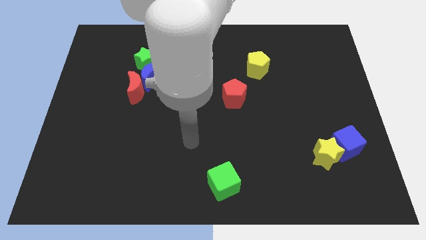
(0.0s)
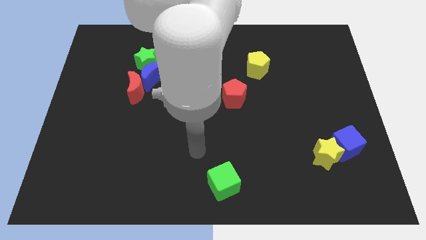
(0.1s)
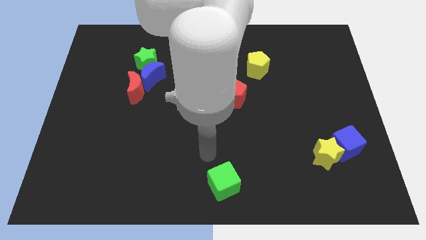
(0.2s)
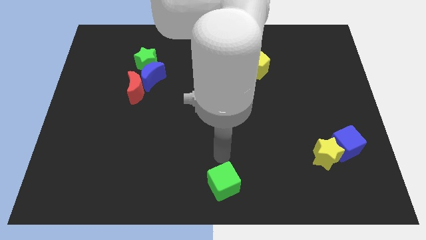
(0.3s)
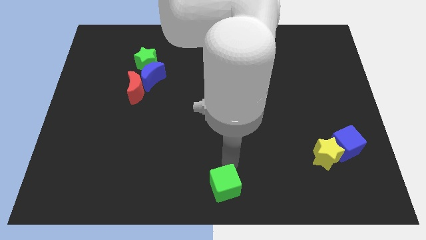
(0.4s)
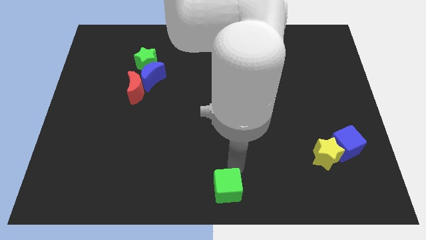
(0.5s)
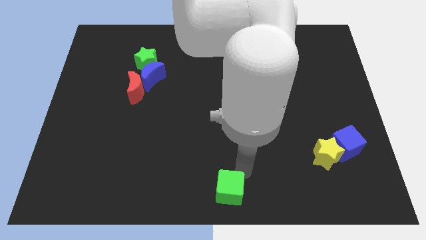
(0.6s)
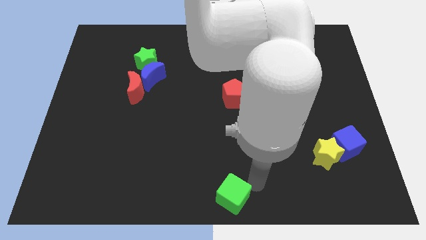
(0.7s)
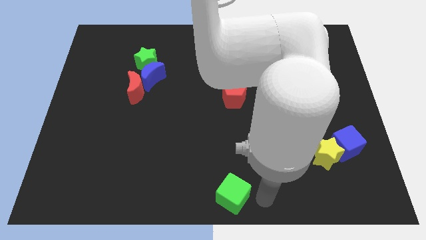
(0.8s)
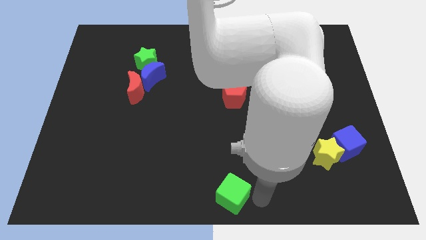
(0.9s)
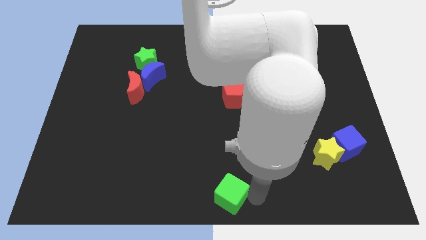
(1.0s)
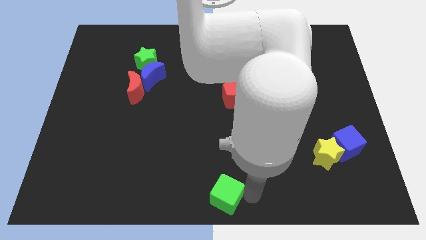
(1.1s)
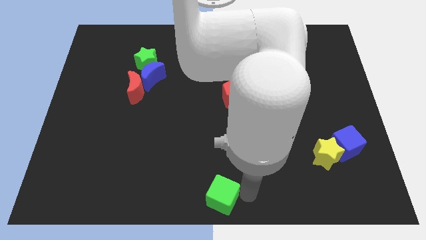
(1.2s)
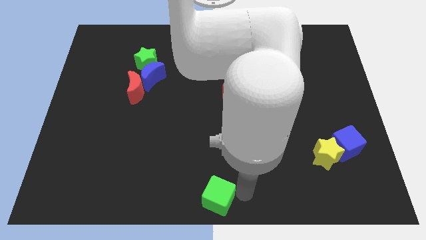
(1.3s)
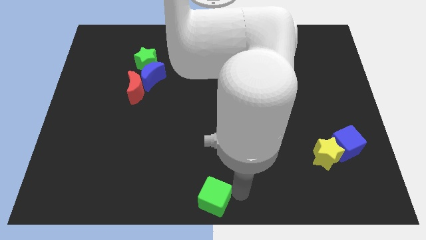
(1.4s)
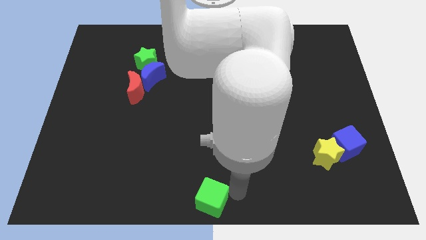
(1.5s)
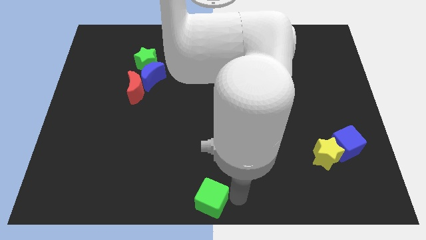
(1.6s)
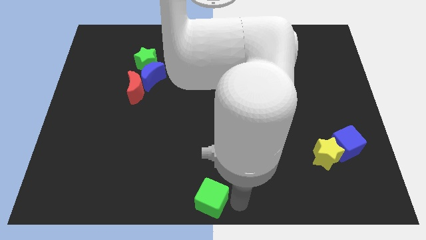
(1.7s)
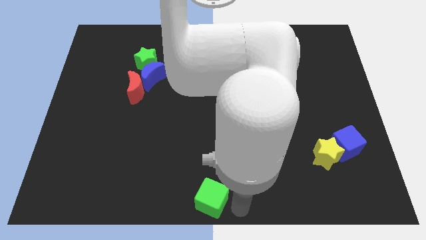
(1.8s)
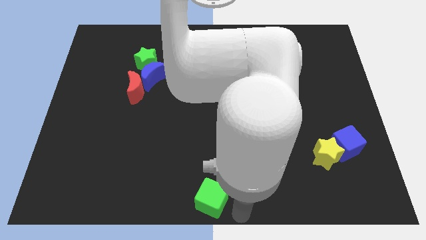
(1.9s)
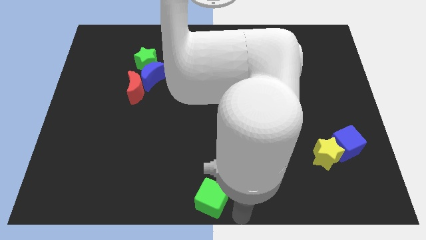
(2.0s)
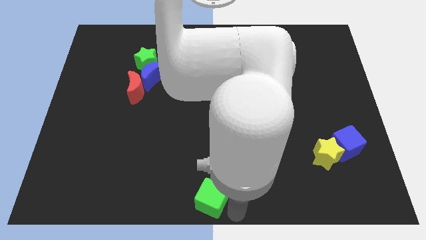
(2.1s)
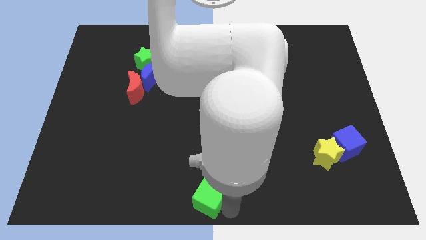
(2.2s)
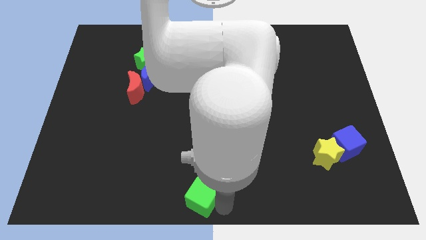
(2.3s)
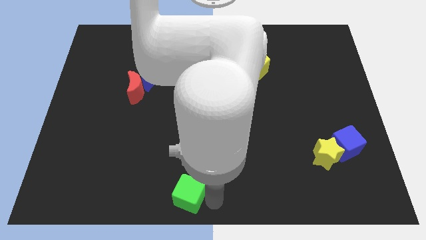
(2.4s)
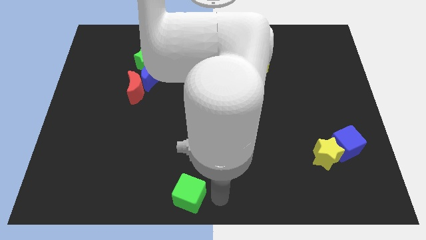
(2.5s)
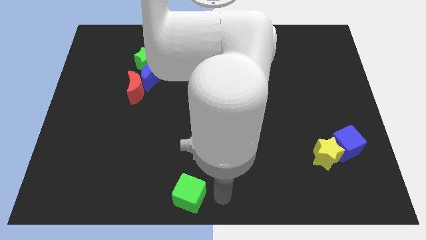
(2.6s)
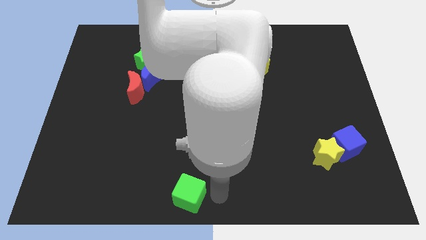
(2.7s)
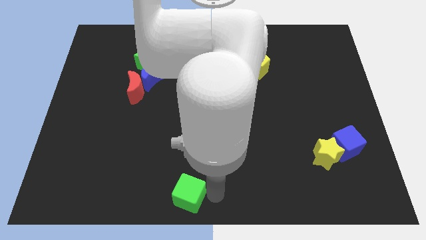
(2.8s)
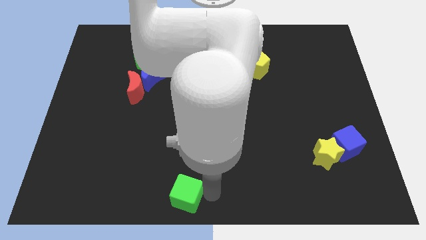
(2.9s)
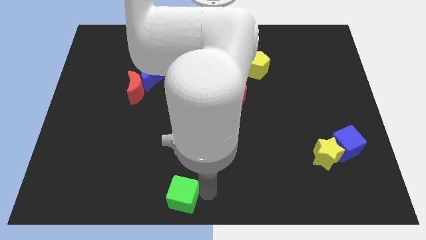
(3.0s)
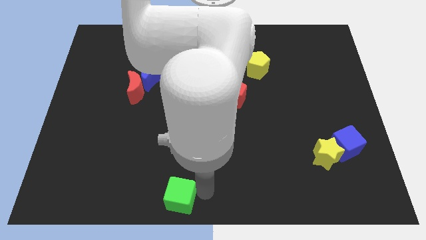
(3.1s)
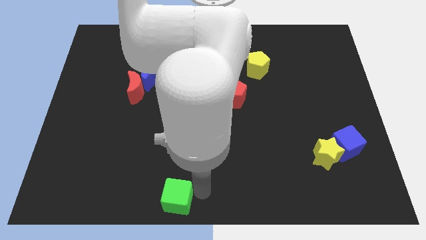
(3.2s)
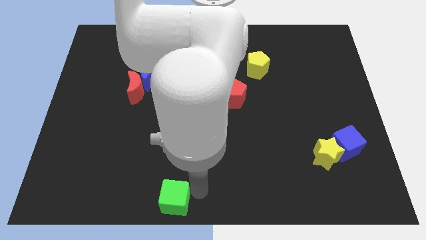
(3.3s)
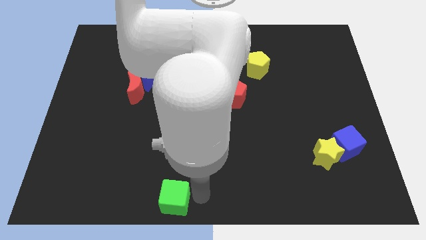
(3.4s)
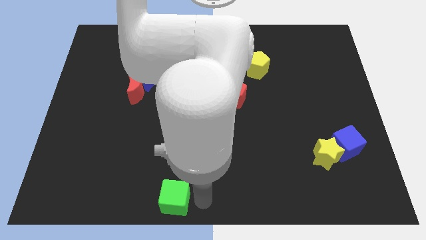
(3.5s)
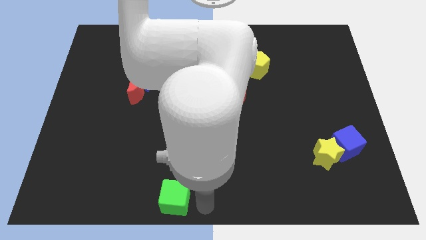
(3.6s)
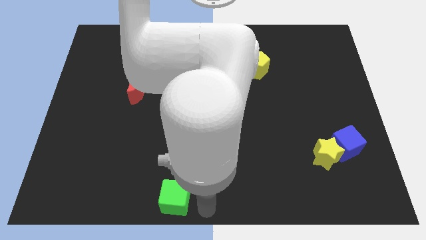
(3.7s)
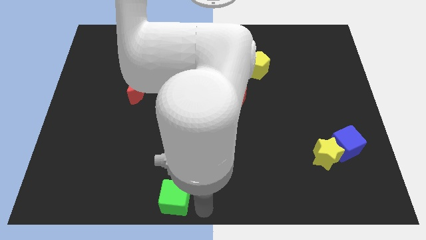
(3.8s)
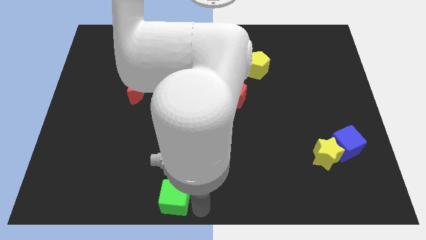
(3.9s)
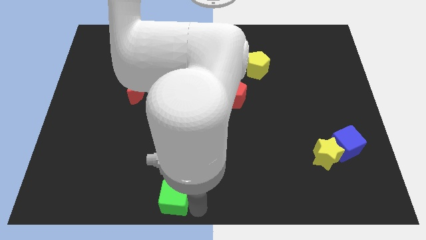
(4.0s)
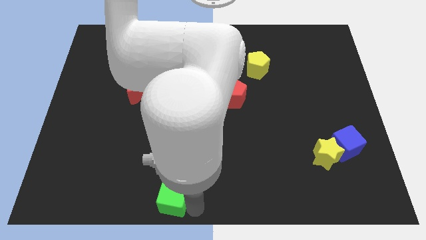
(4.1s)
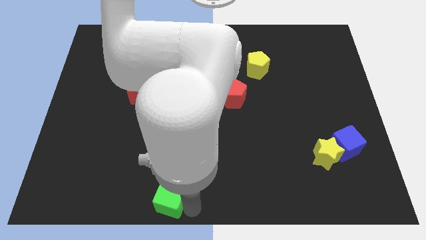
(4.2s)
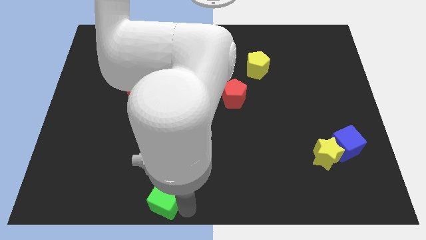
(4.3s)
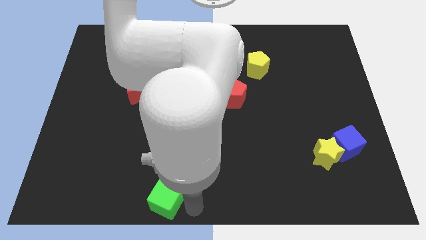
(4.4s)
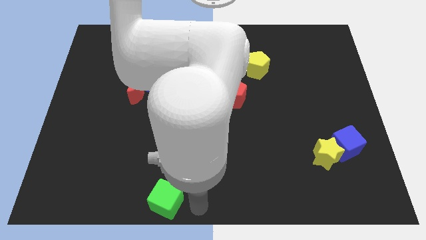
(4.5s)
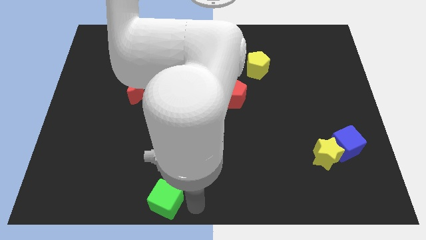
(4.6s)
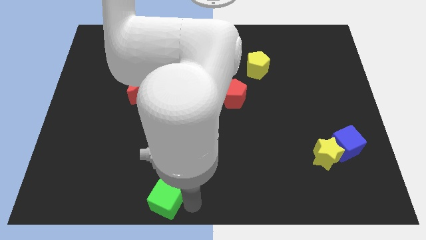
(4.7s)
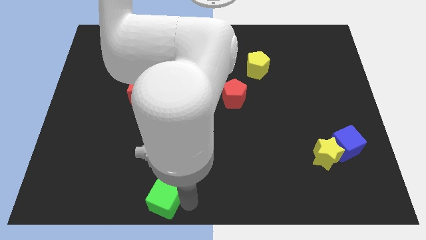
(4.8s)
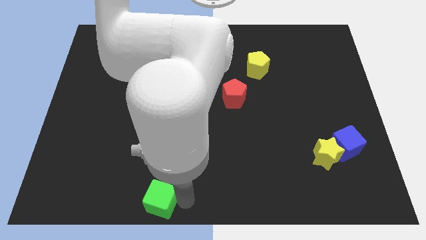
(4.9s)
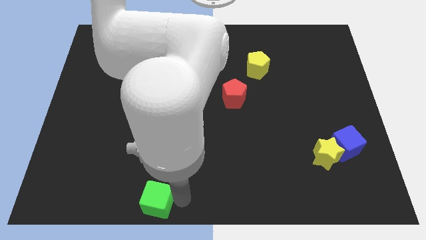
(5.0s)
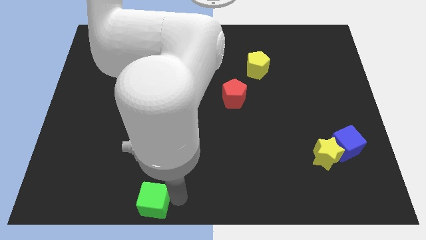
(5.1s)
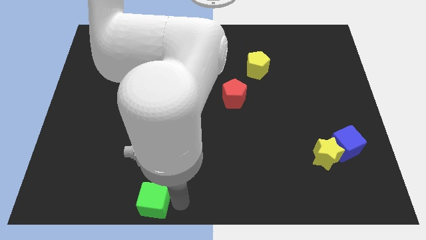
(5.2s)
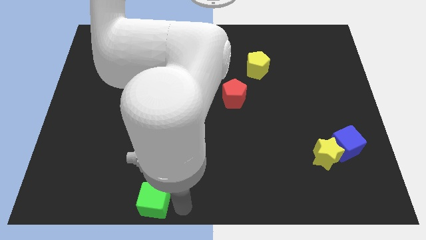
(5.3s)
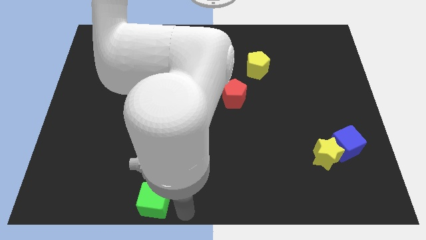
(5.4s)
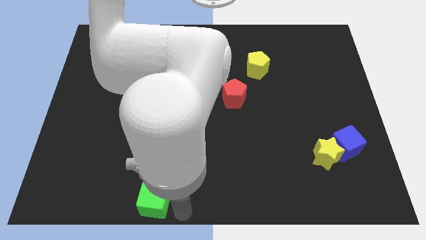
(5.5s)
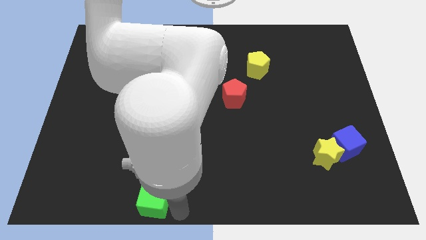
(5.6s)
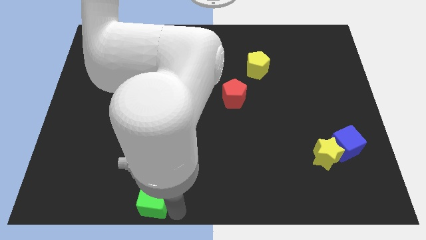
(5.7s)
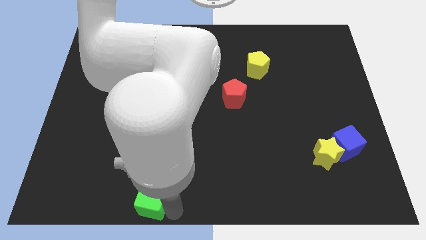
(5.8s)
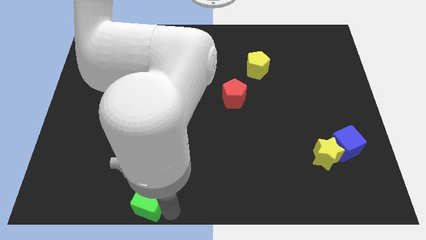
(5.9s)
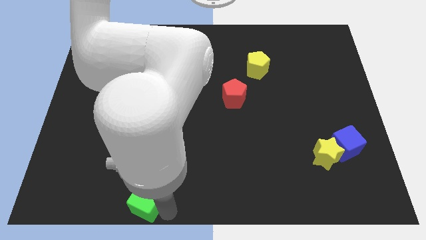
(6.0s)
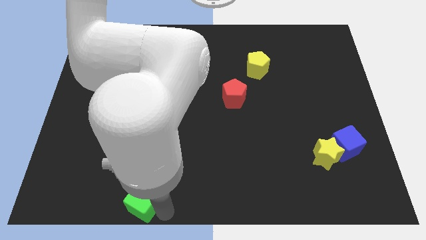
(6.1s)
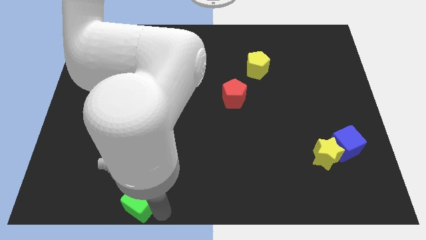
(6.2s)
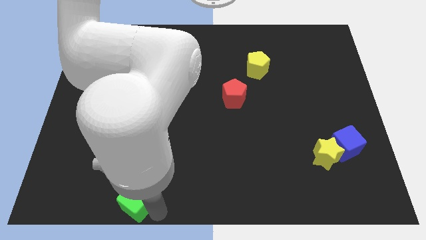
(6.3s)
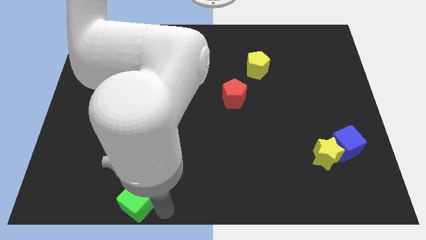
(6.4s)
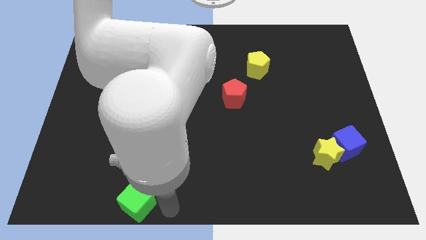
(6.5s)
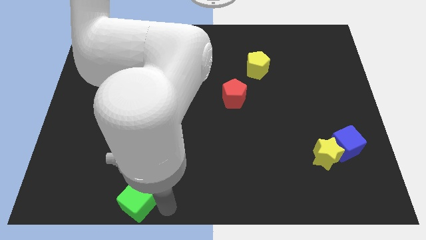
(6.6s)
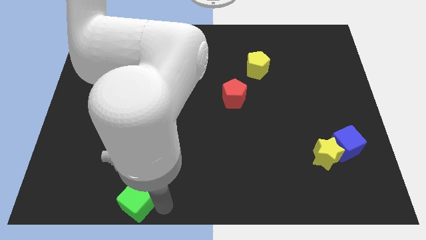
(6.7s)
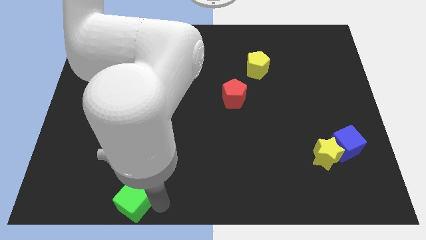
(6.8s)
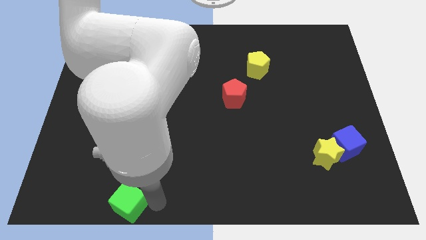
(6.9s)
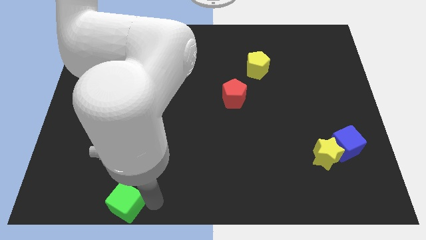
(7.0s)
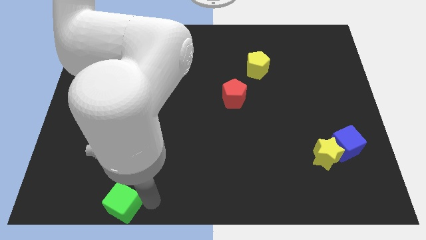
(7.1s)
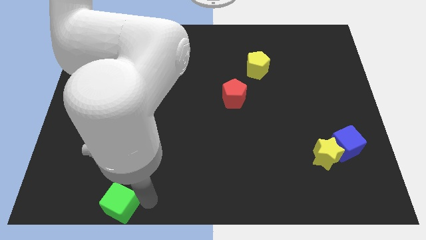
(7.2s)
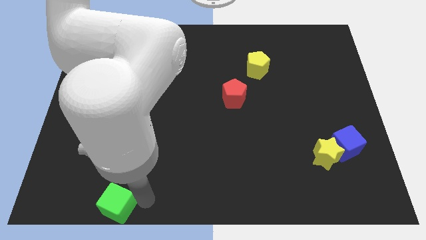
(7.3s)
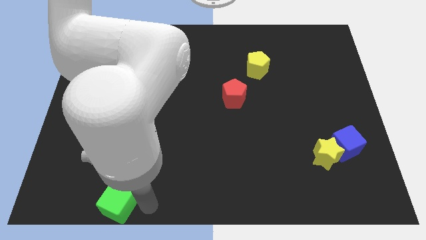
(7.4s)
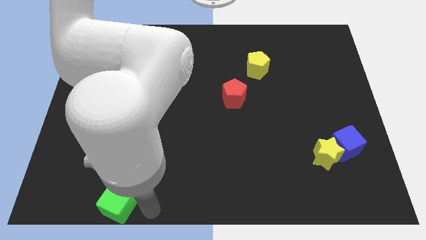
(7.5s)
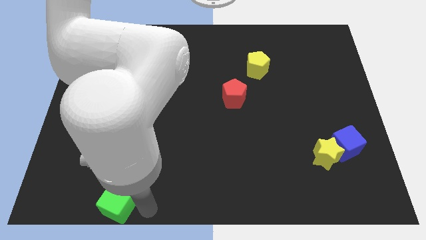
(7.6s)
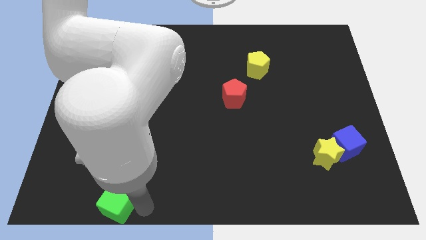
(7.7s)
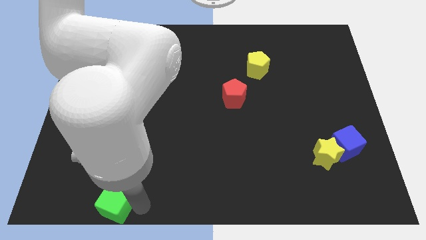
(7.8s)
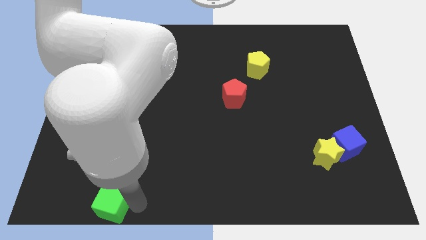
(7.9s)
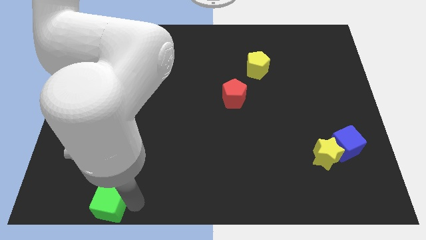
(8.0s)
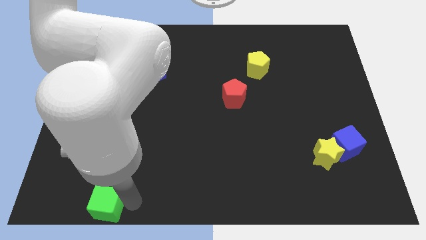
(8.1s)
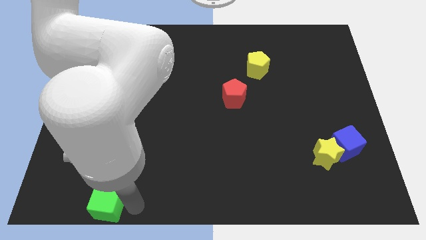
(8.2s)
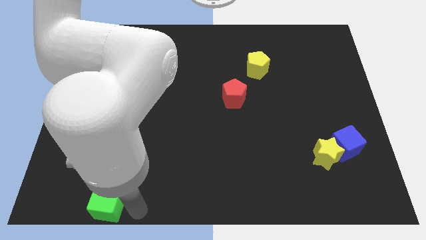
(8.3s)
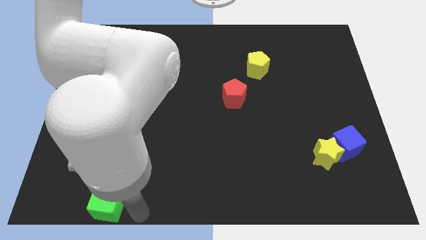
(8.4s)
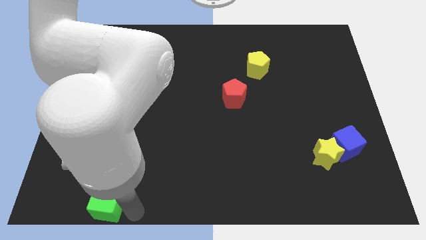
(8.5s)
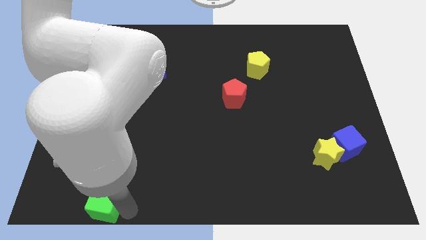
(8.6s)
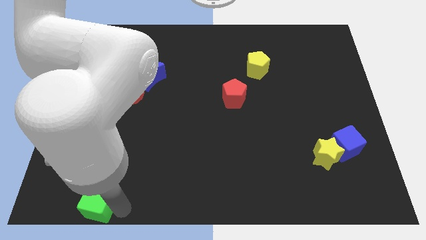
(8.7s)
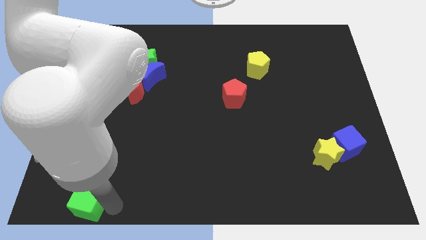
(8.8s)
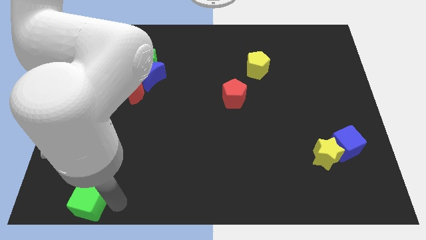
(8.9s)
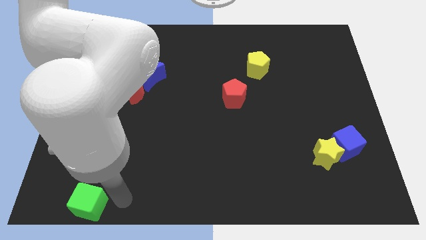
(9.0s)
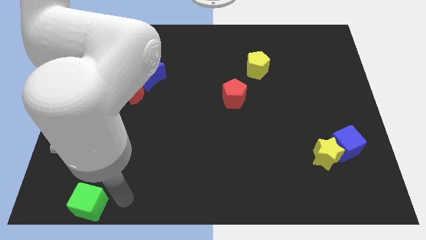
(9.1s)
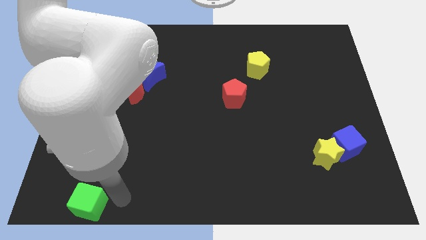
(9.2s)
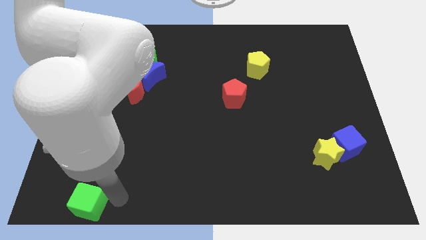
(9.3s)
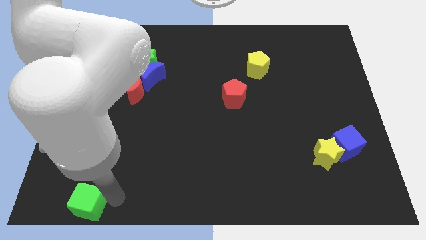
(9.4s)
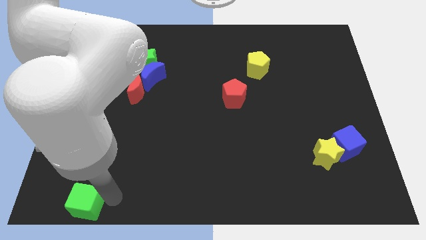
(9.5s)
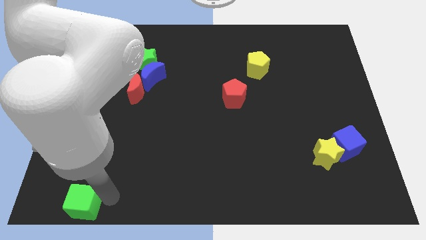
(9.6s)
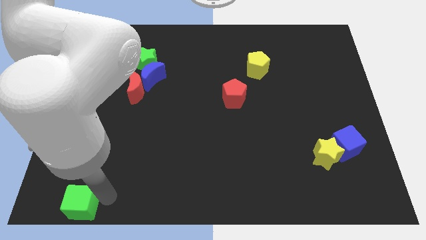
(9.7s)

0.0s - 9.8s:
put the green cube to the bottom left corner
